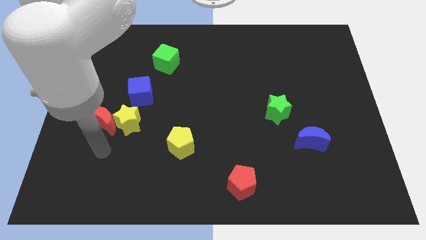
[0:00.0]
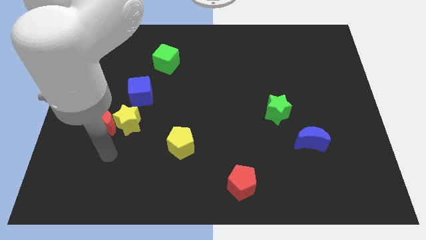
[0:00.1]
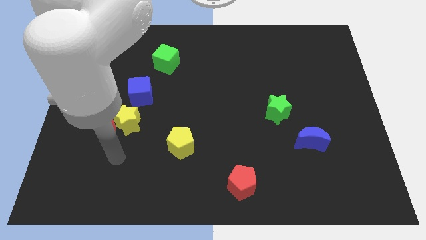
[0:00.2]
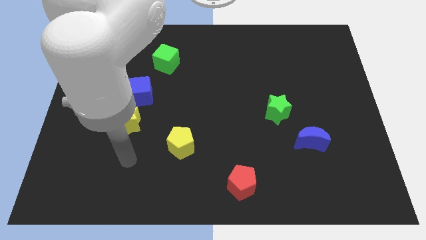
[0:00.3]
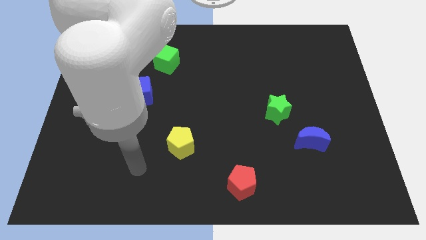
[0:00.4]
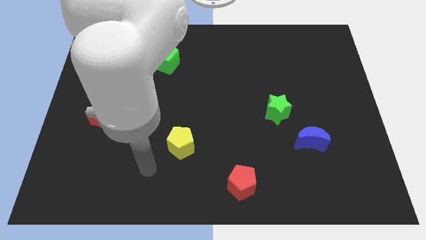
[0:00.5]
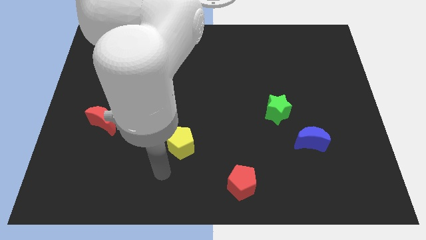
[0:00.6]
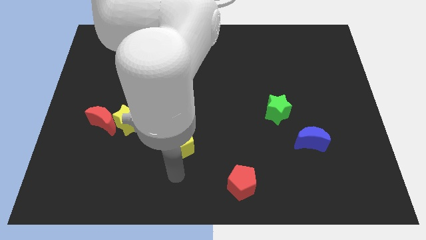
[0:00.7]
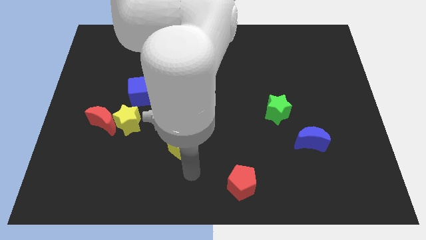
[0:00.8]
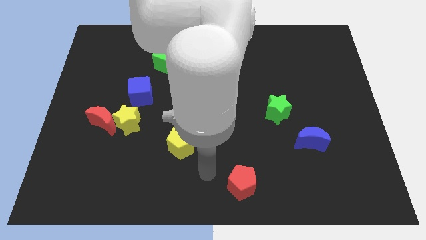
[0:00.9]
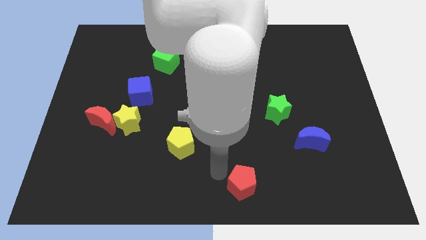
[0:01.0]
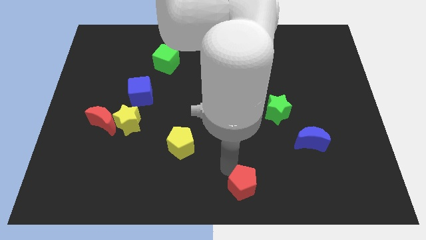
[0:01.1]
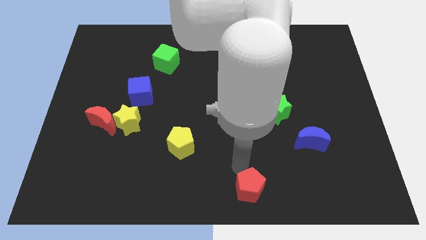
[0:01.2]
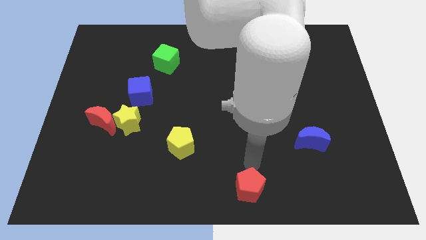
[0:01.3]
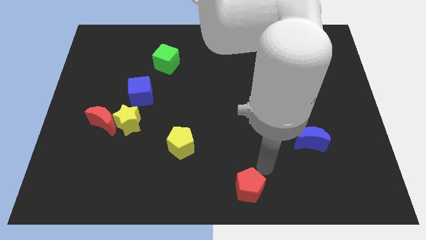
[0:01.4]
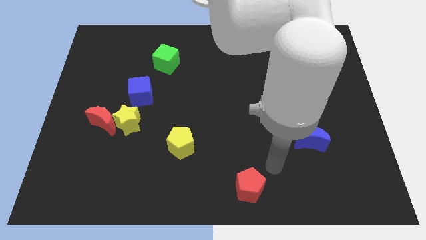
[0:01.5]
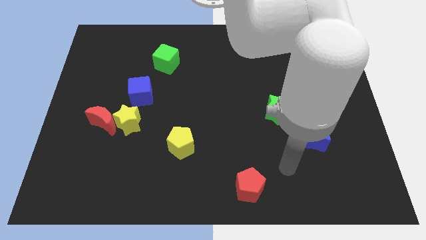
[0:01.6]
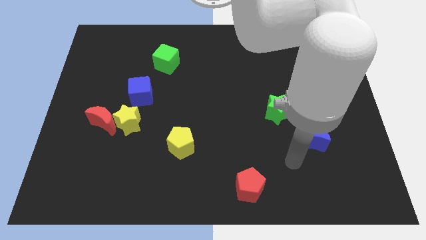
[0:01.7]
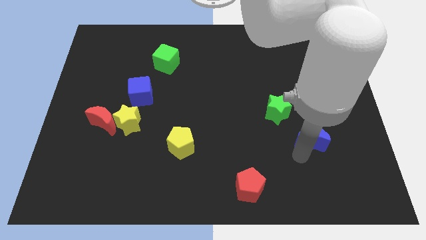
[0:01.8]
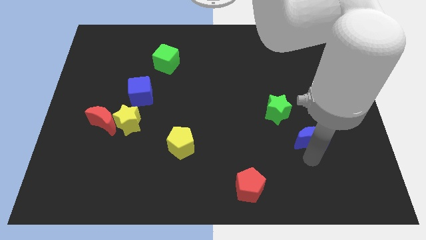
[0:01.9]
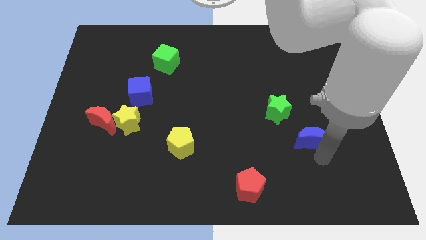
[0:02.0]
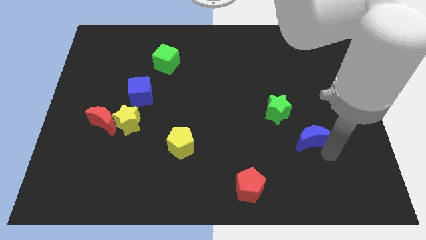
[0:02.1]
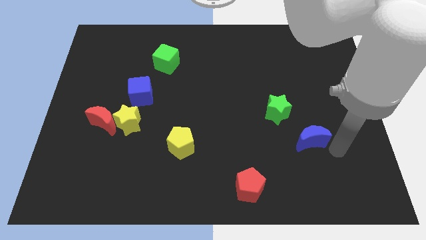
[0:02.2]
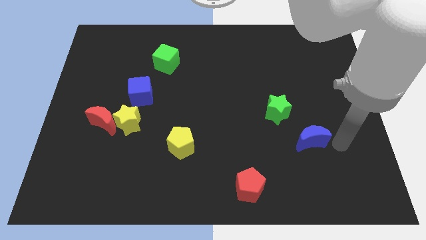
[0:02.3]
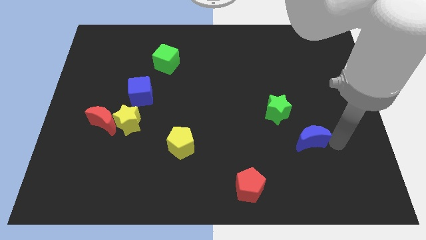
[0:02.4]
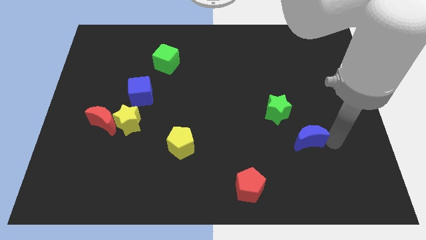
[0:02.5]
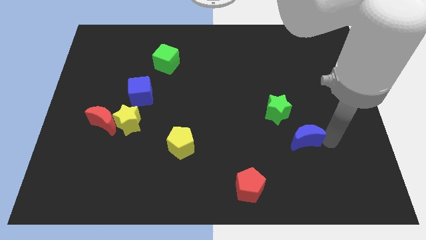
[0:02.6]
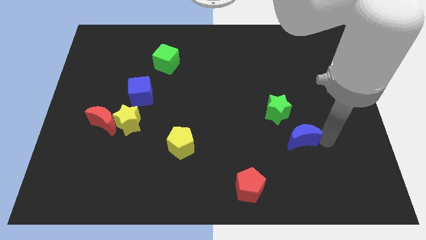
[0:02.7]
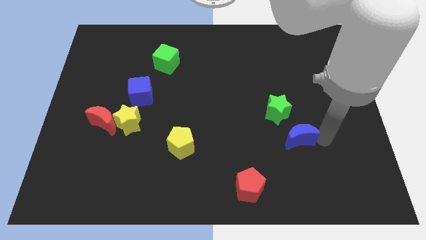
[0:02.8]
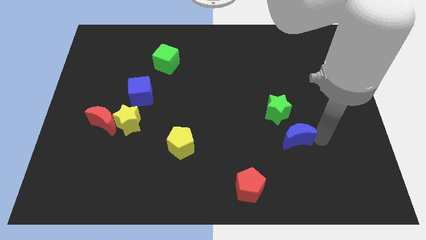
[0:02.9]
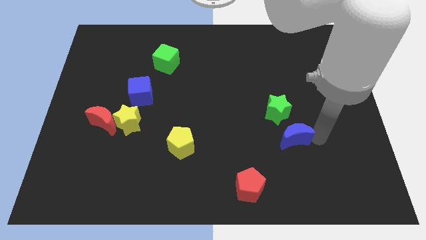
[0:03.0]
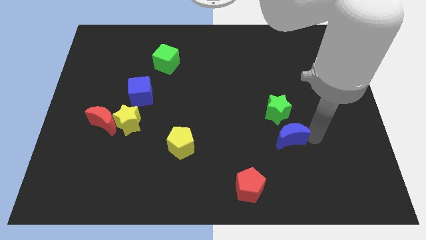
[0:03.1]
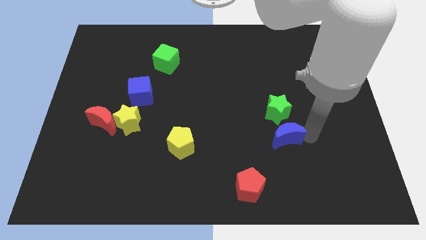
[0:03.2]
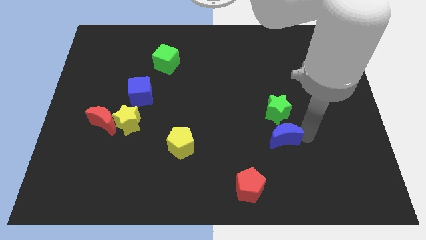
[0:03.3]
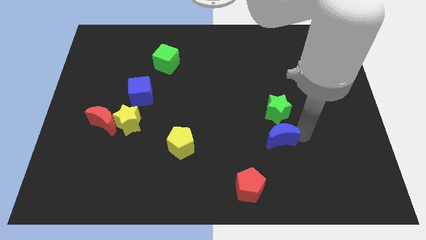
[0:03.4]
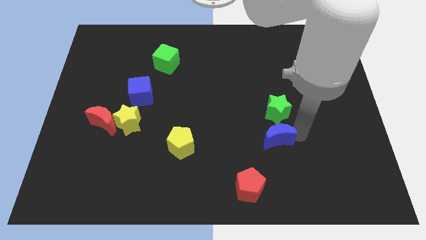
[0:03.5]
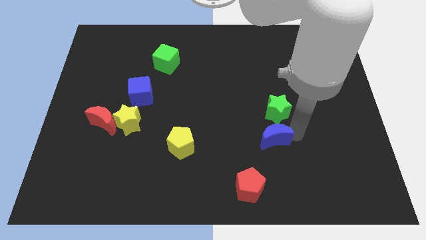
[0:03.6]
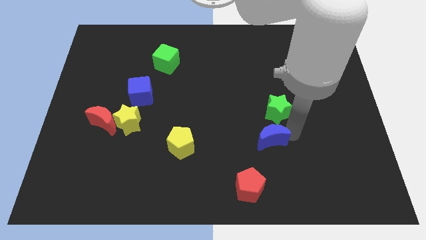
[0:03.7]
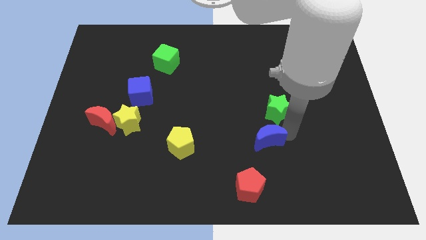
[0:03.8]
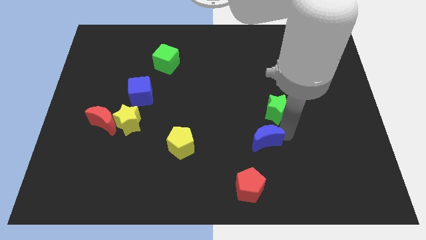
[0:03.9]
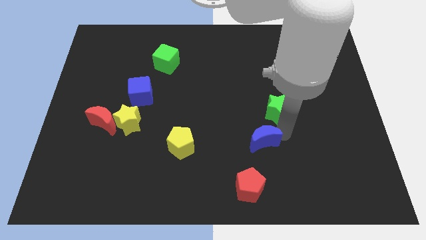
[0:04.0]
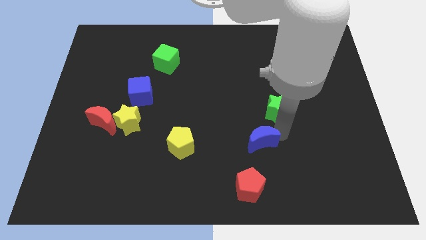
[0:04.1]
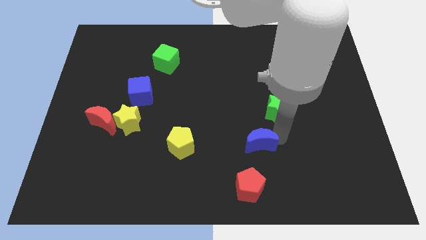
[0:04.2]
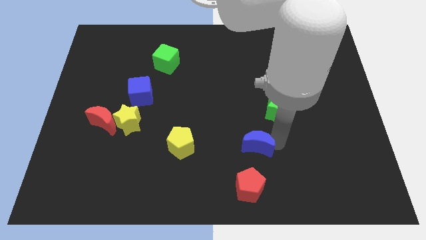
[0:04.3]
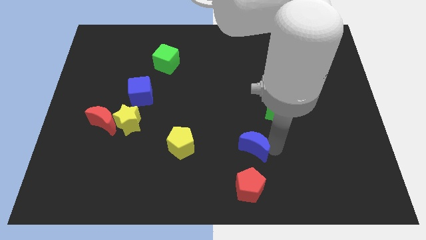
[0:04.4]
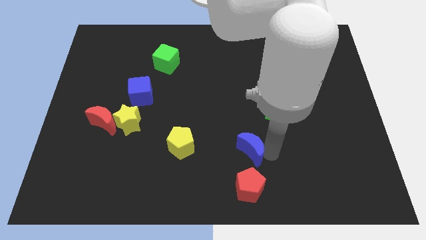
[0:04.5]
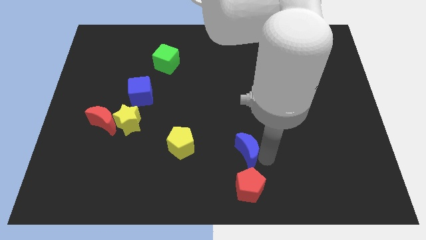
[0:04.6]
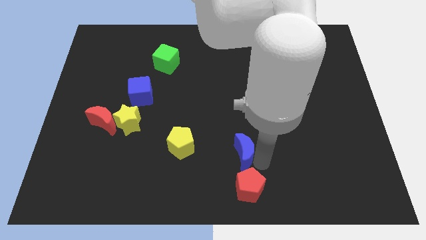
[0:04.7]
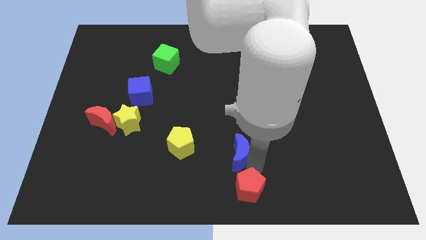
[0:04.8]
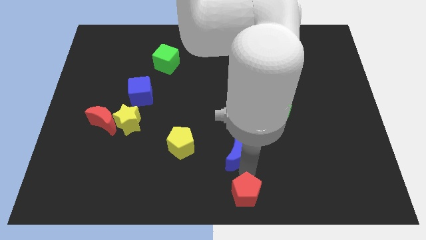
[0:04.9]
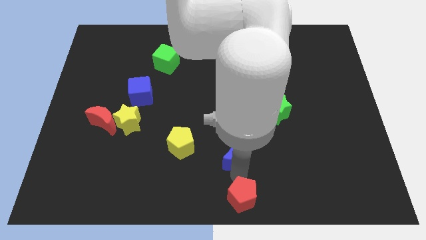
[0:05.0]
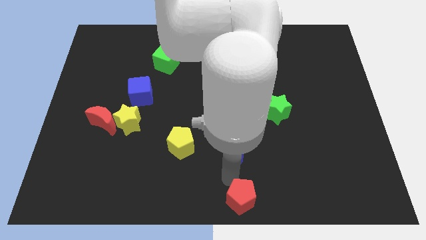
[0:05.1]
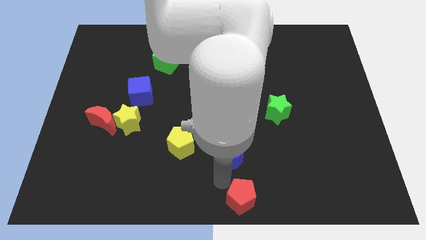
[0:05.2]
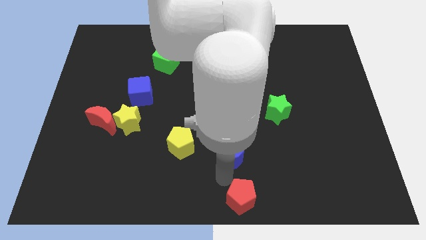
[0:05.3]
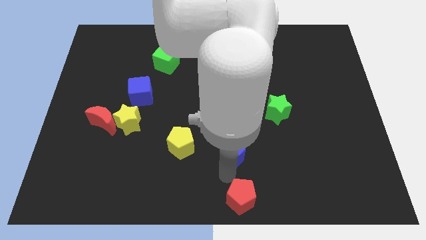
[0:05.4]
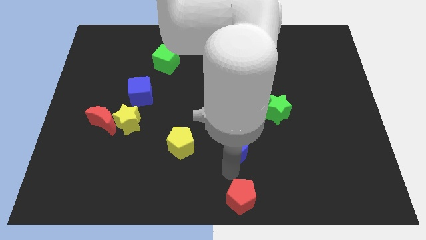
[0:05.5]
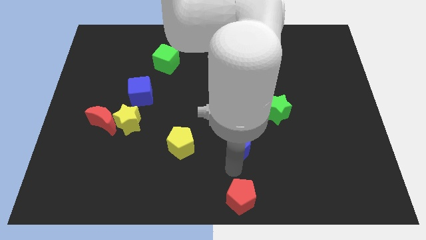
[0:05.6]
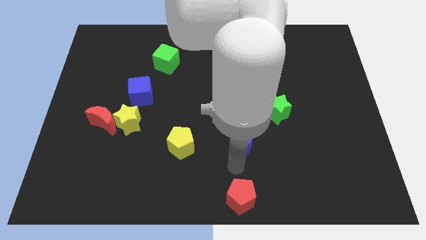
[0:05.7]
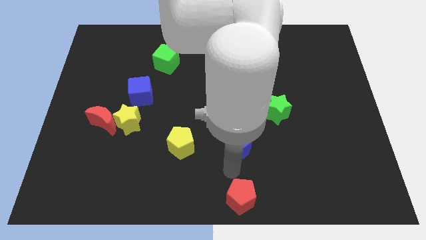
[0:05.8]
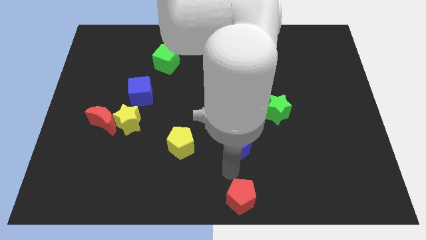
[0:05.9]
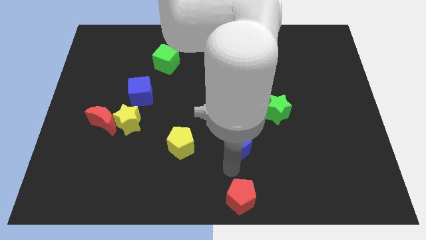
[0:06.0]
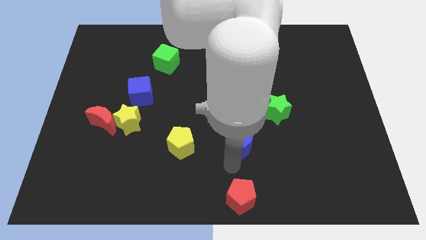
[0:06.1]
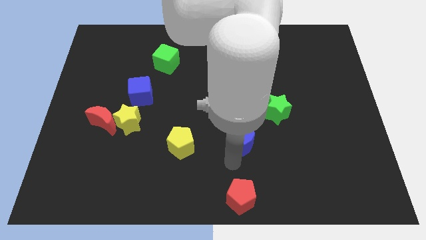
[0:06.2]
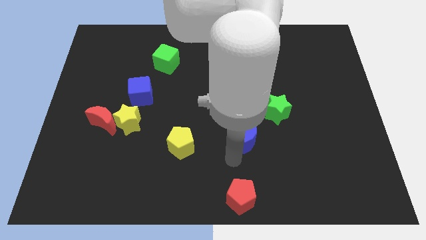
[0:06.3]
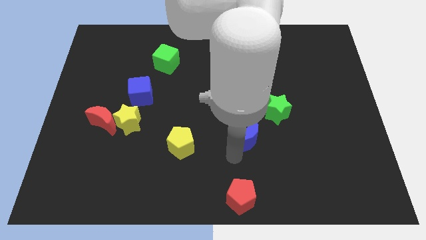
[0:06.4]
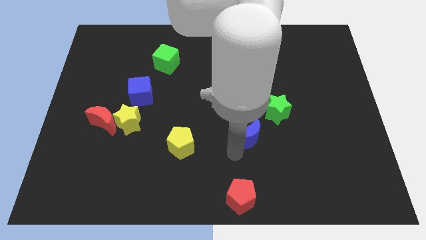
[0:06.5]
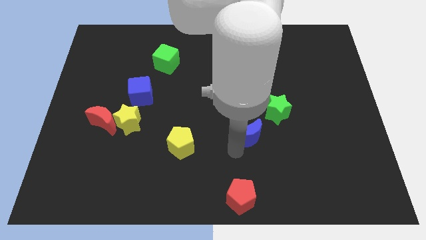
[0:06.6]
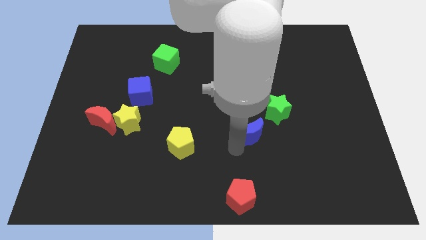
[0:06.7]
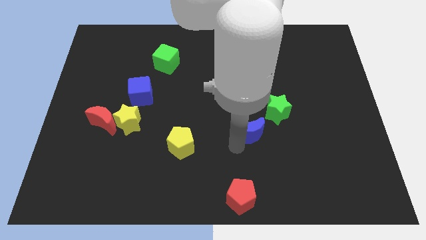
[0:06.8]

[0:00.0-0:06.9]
put the blue moon to the center
